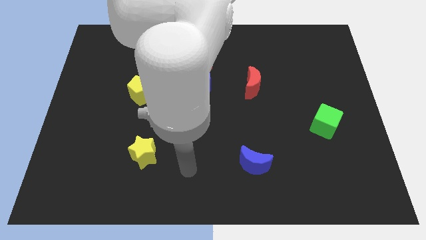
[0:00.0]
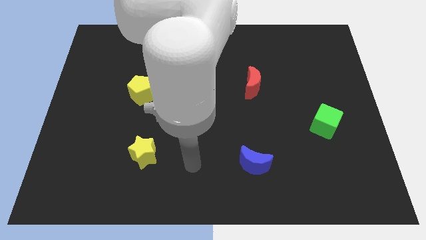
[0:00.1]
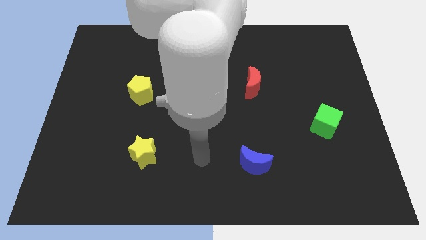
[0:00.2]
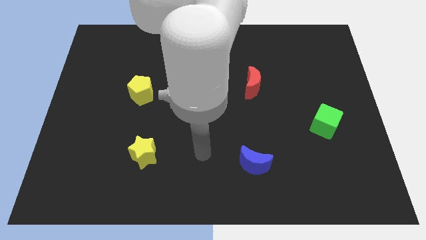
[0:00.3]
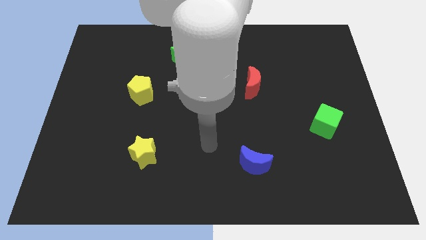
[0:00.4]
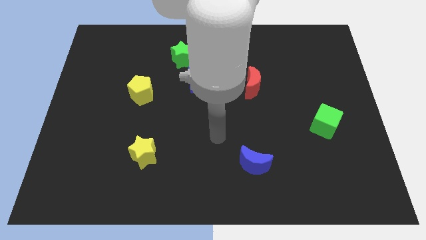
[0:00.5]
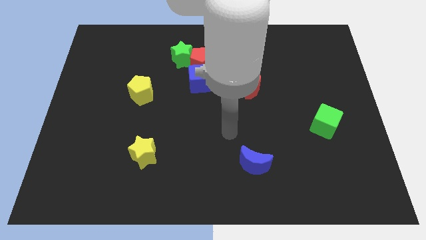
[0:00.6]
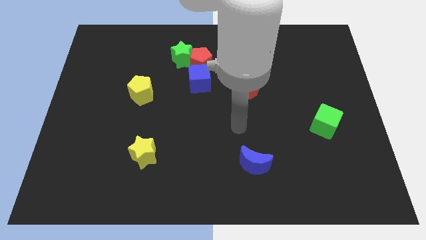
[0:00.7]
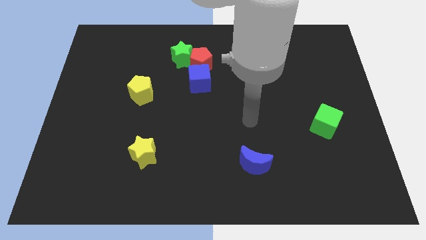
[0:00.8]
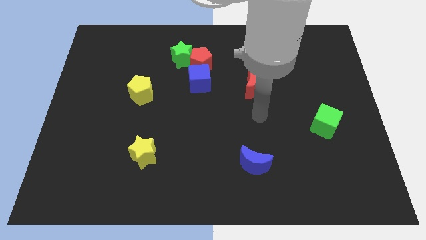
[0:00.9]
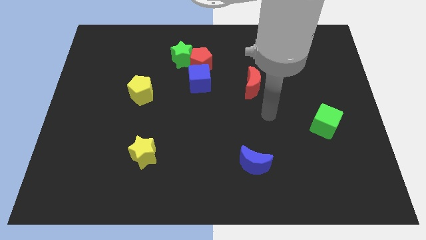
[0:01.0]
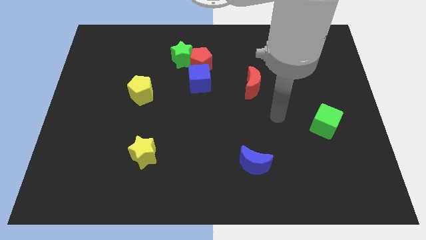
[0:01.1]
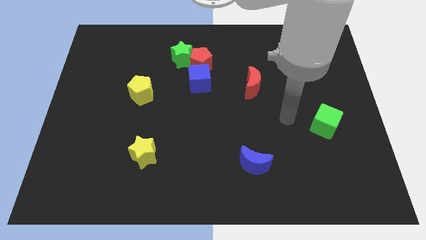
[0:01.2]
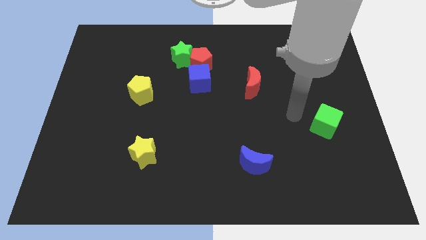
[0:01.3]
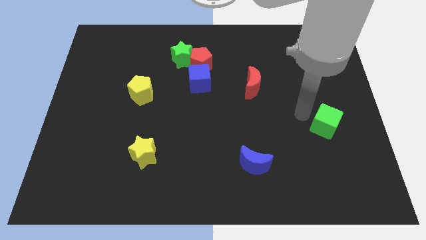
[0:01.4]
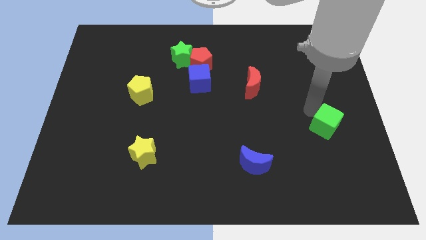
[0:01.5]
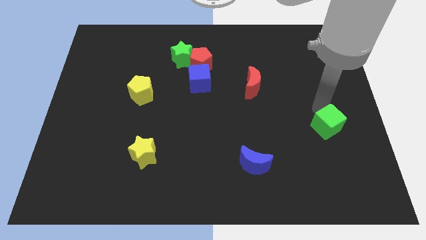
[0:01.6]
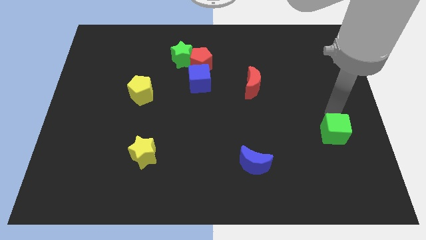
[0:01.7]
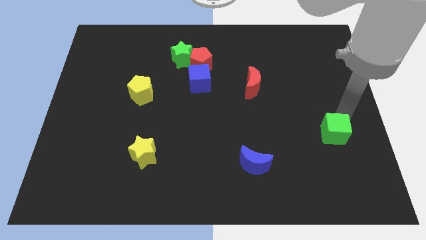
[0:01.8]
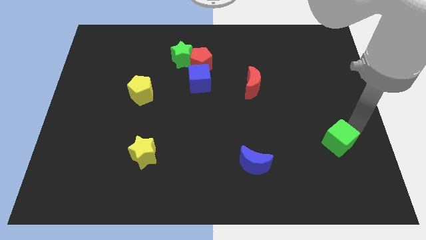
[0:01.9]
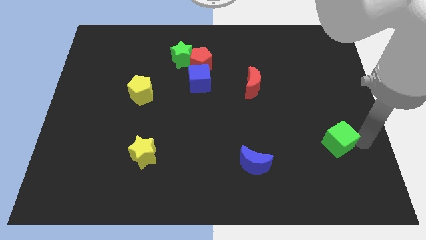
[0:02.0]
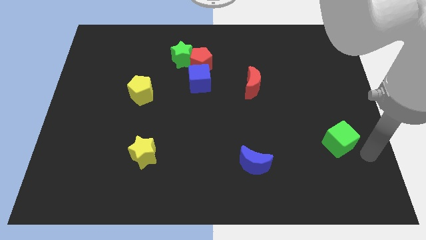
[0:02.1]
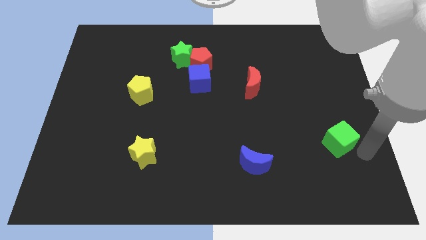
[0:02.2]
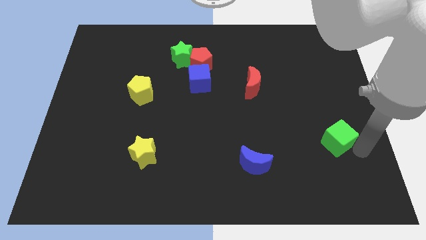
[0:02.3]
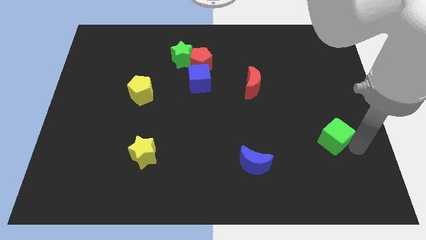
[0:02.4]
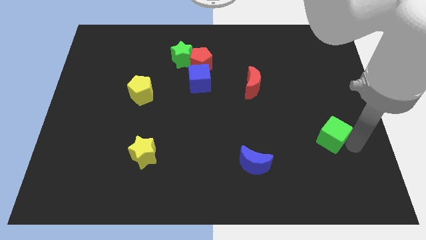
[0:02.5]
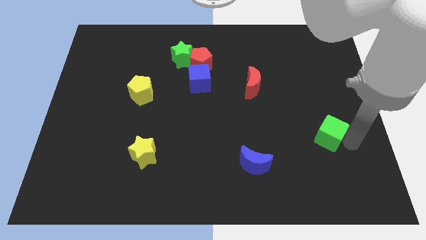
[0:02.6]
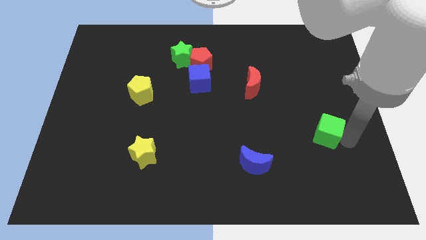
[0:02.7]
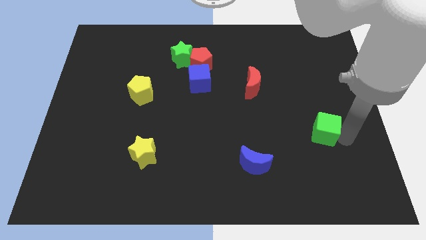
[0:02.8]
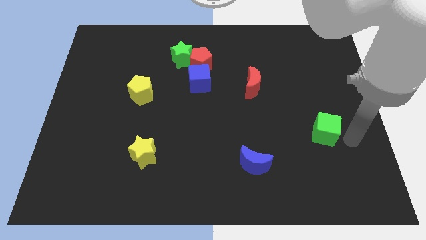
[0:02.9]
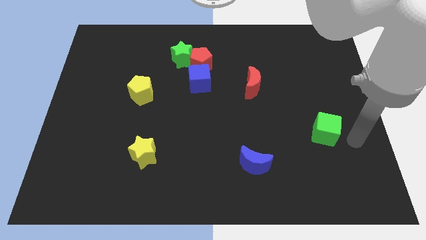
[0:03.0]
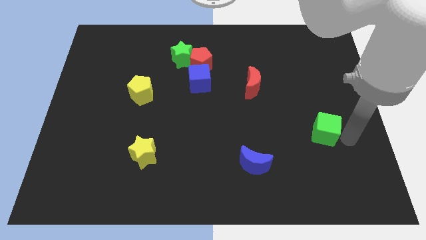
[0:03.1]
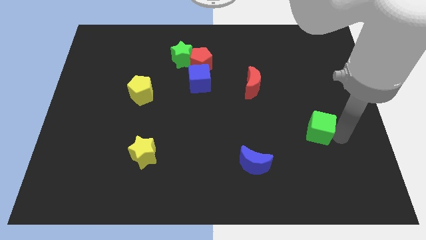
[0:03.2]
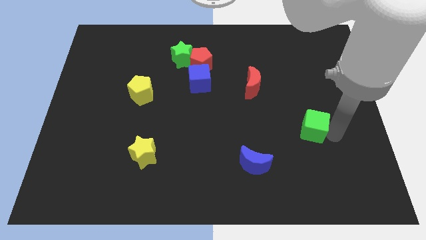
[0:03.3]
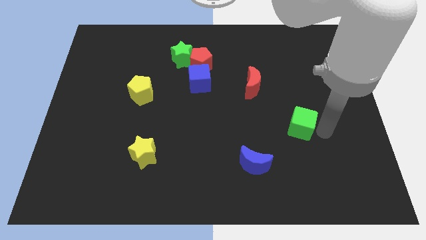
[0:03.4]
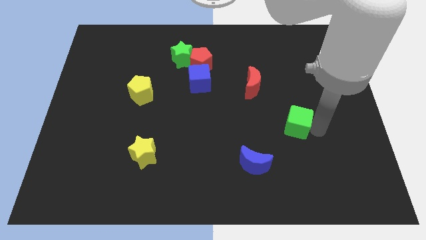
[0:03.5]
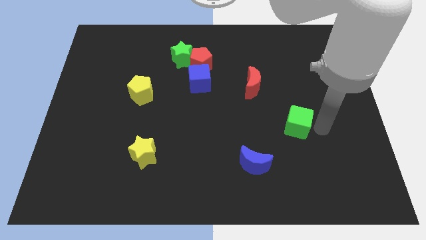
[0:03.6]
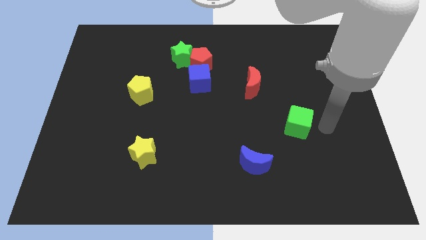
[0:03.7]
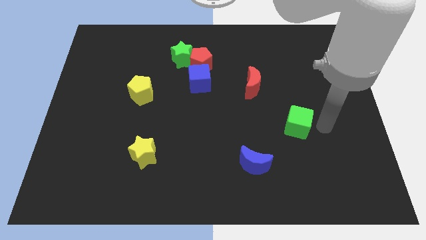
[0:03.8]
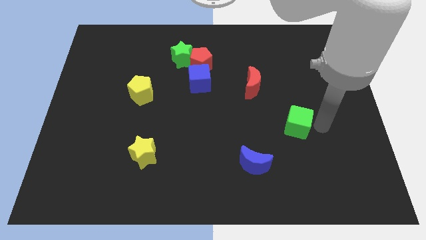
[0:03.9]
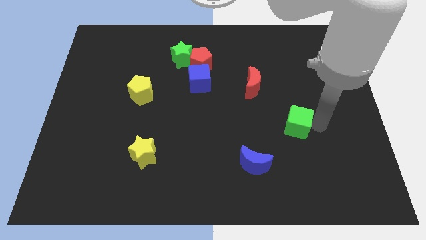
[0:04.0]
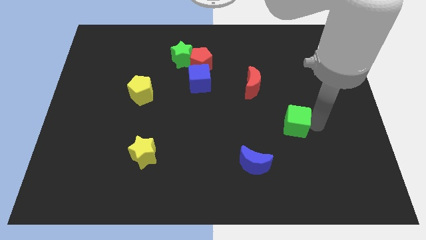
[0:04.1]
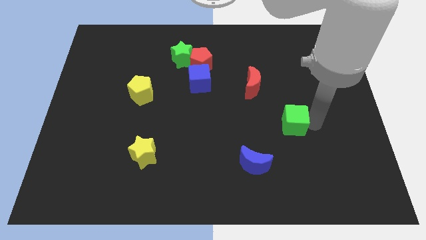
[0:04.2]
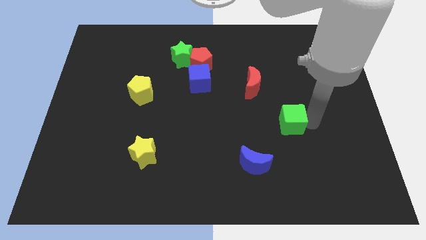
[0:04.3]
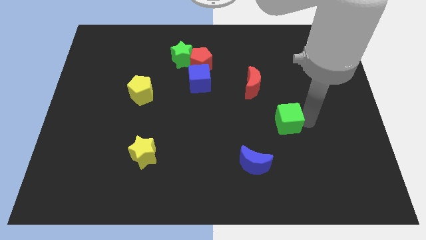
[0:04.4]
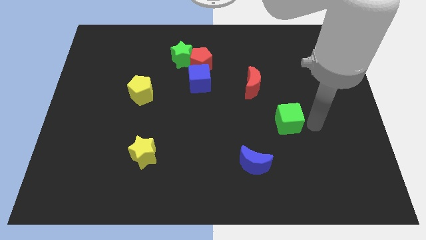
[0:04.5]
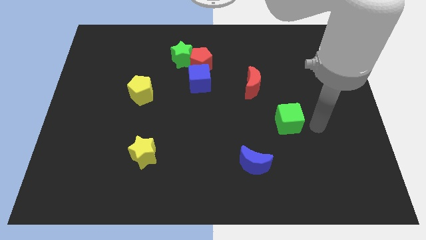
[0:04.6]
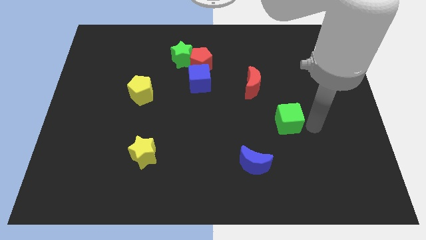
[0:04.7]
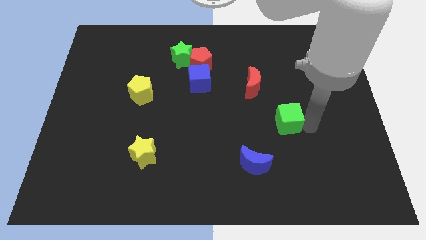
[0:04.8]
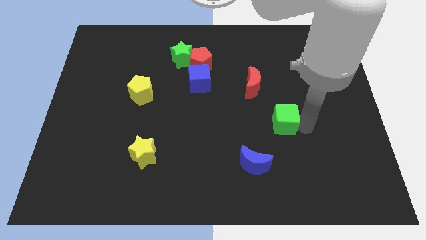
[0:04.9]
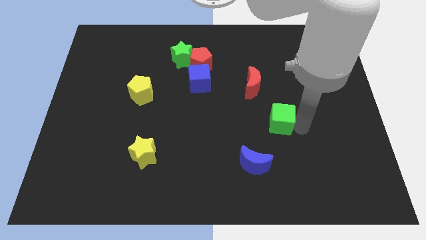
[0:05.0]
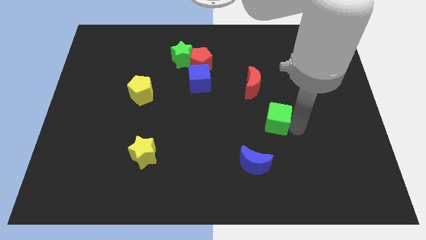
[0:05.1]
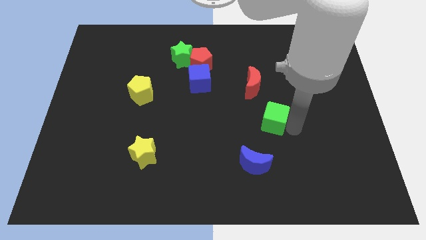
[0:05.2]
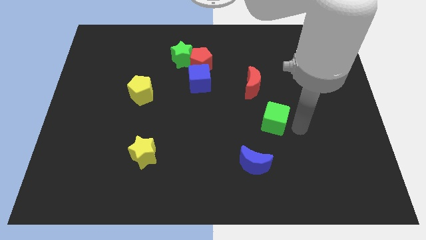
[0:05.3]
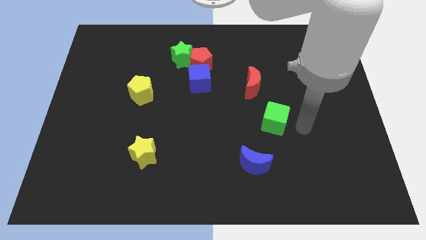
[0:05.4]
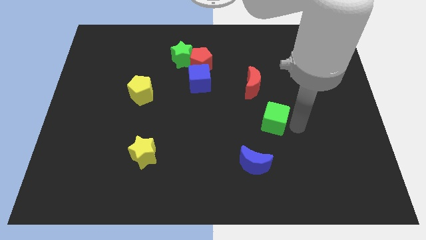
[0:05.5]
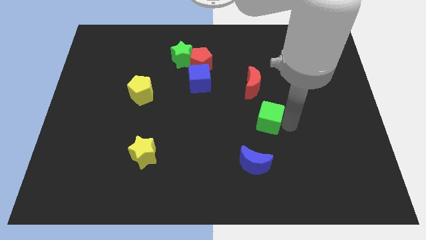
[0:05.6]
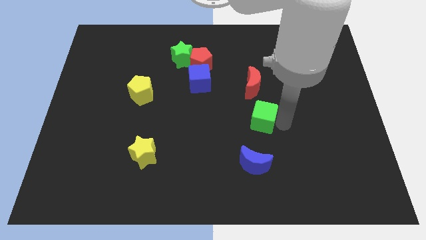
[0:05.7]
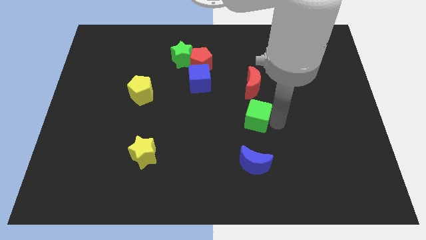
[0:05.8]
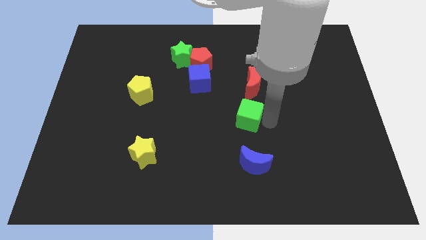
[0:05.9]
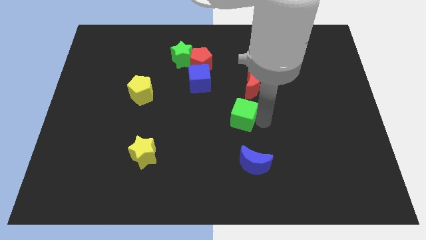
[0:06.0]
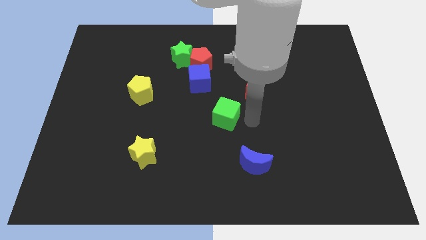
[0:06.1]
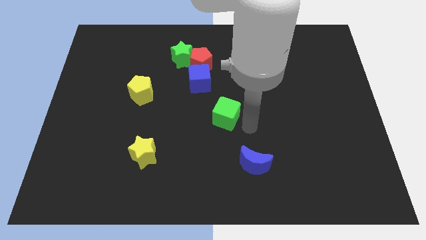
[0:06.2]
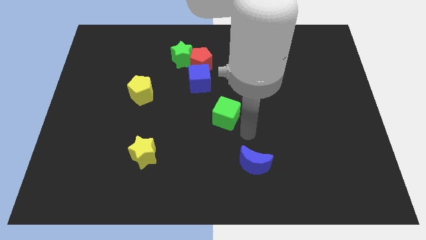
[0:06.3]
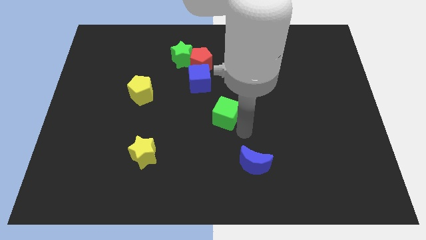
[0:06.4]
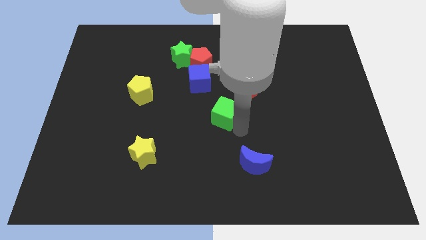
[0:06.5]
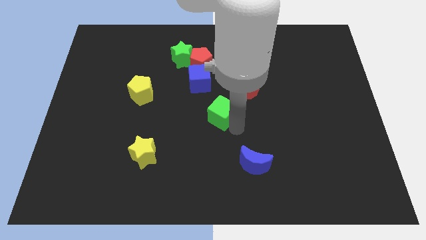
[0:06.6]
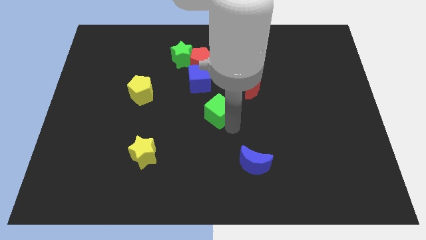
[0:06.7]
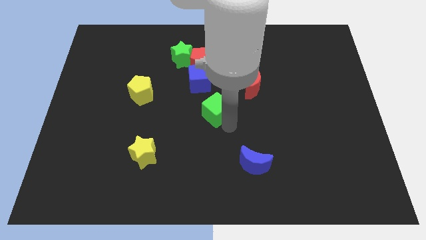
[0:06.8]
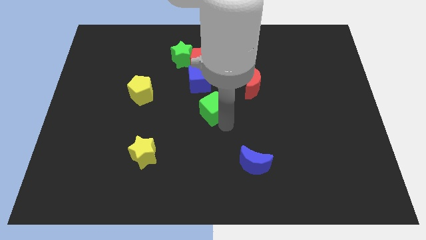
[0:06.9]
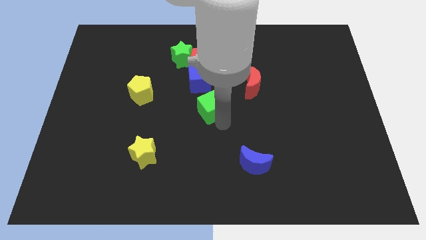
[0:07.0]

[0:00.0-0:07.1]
push the green cube to the bottom of the red pentagon
